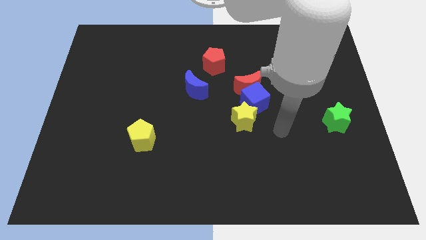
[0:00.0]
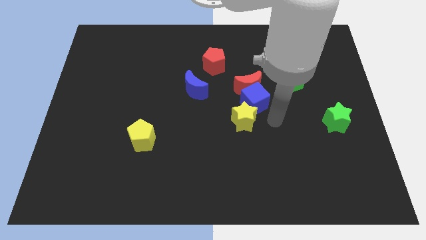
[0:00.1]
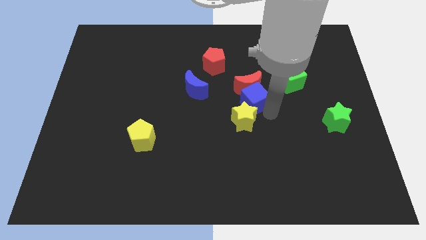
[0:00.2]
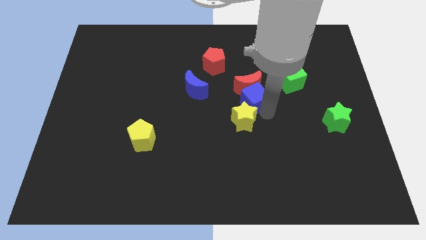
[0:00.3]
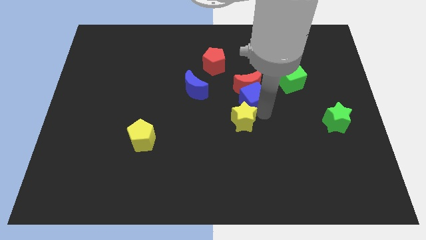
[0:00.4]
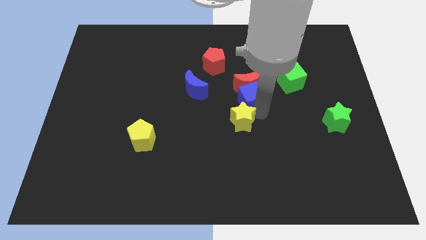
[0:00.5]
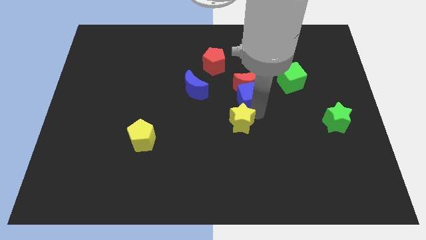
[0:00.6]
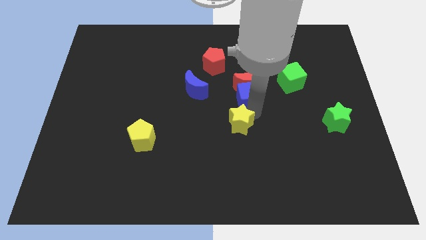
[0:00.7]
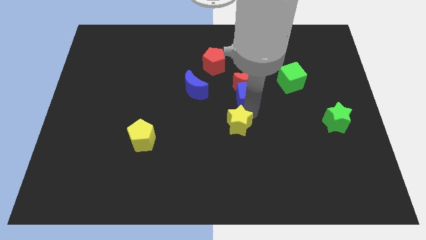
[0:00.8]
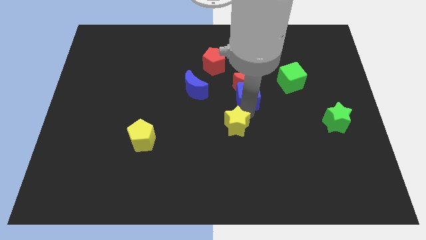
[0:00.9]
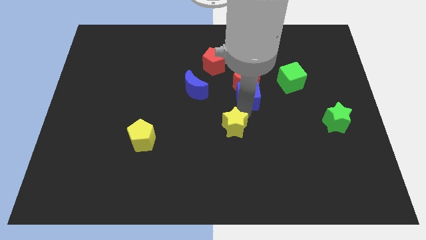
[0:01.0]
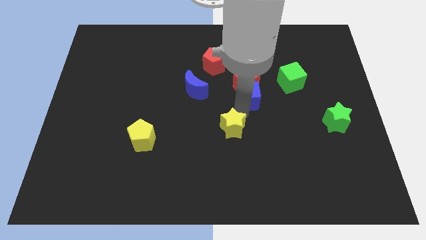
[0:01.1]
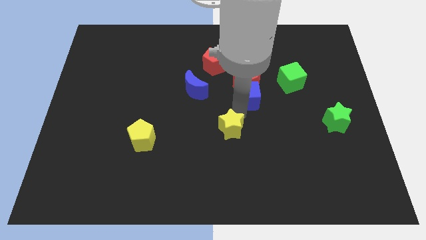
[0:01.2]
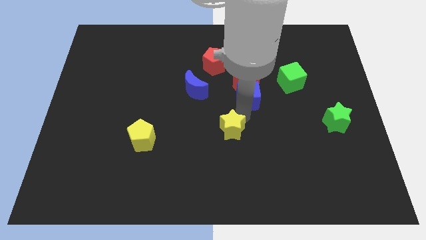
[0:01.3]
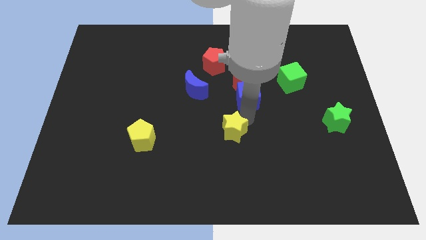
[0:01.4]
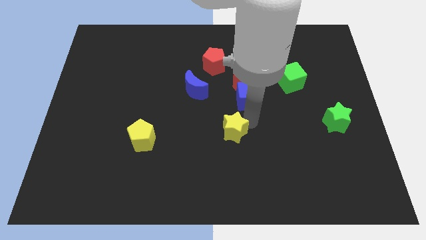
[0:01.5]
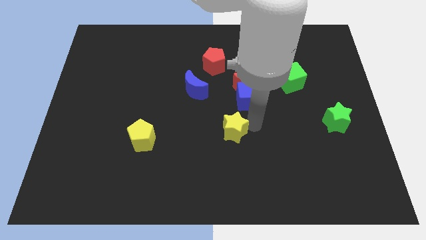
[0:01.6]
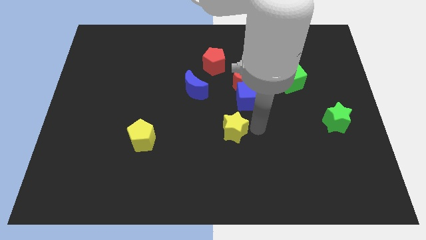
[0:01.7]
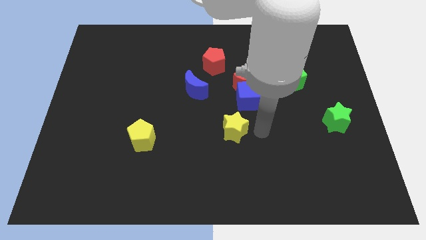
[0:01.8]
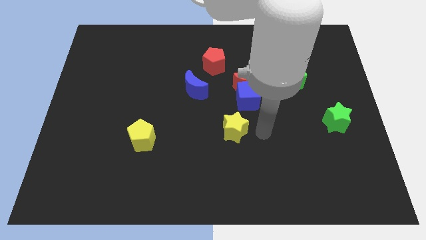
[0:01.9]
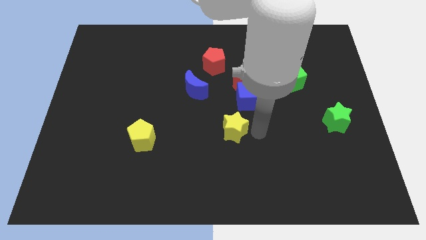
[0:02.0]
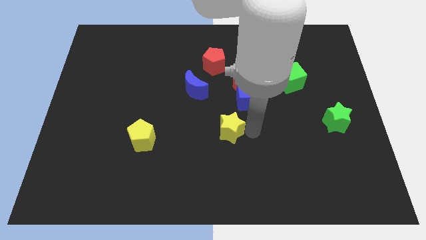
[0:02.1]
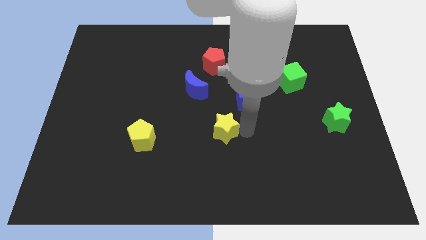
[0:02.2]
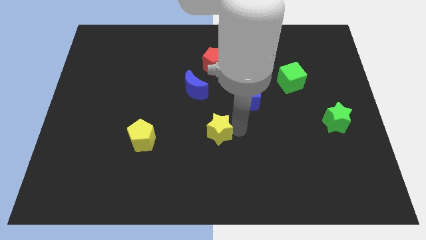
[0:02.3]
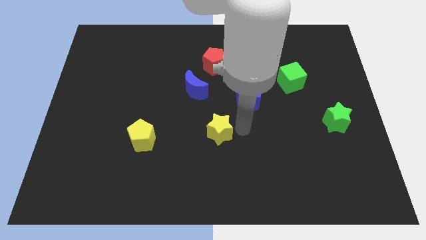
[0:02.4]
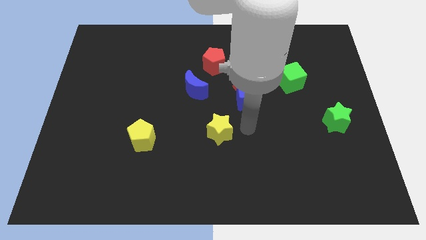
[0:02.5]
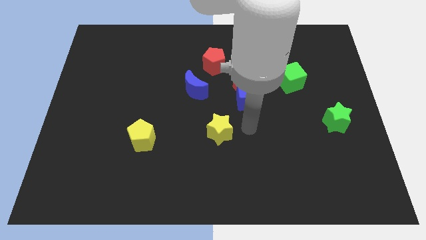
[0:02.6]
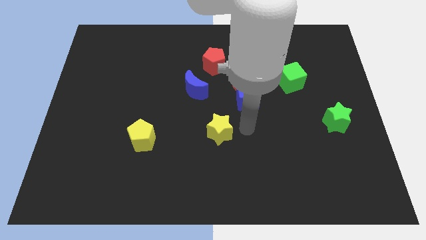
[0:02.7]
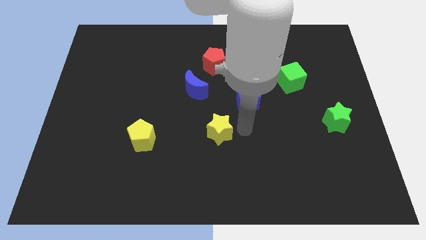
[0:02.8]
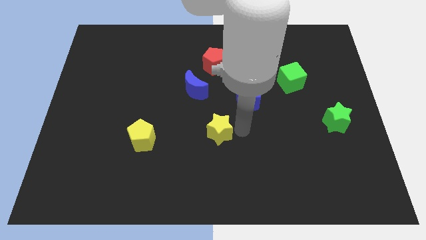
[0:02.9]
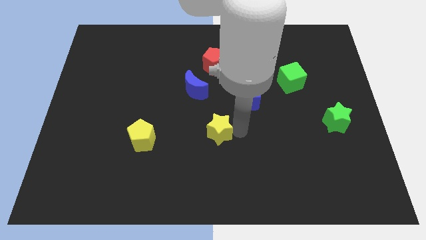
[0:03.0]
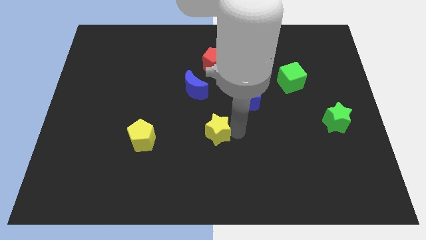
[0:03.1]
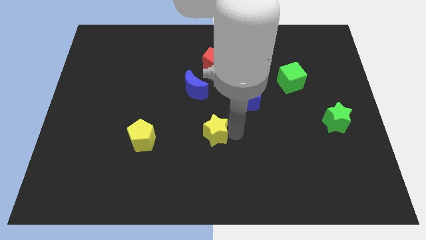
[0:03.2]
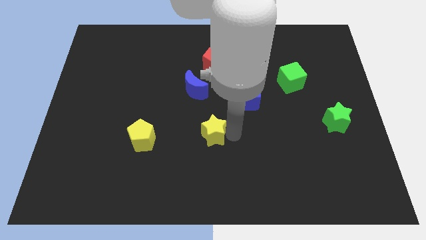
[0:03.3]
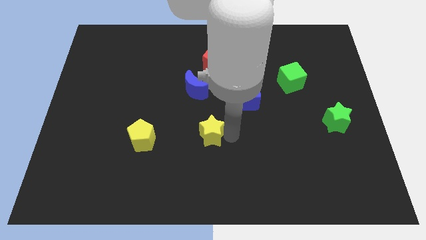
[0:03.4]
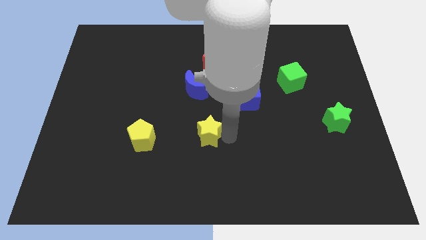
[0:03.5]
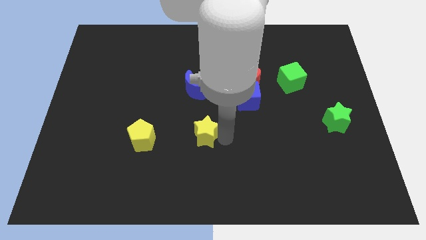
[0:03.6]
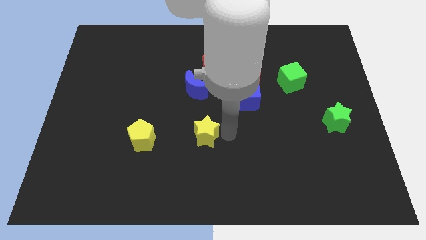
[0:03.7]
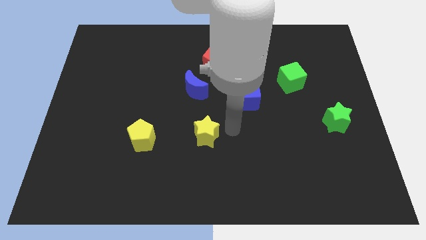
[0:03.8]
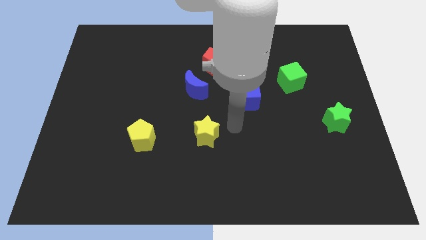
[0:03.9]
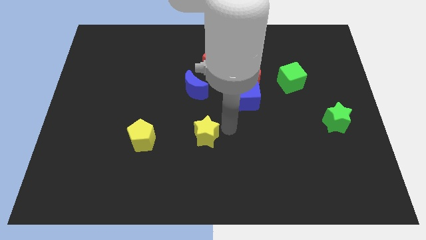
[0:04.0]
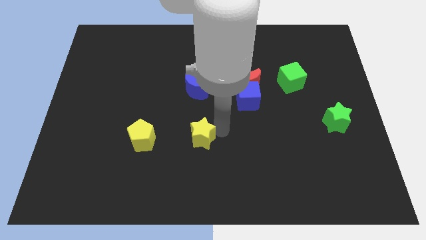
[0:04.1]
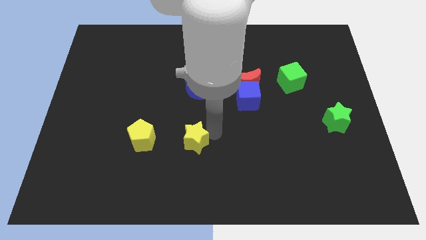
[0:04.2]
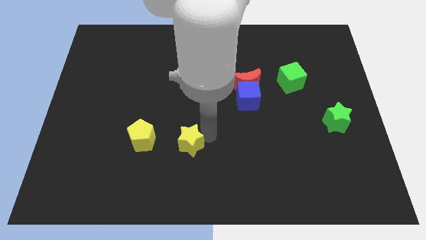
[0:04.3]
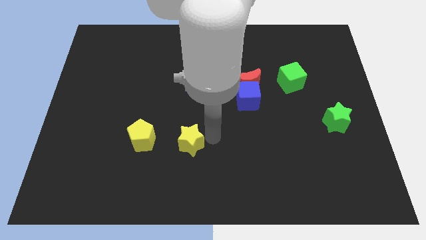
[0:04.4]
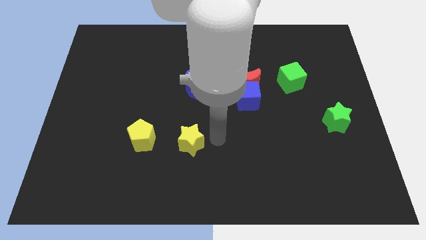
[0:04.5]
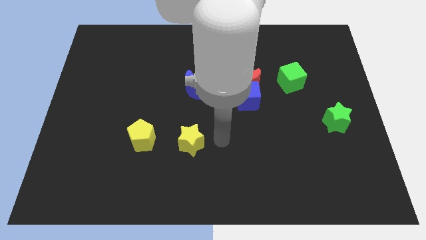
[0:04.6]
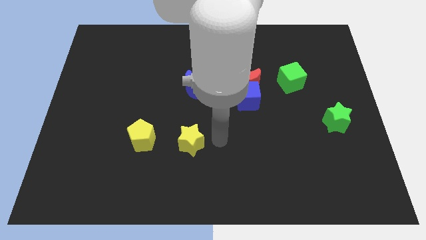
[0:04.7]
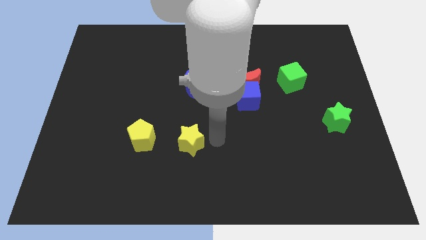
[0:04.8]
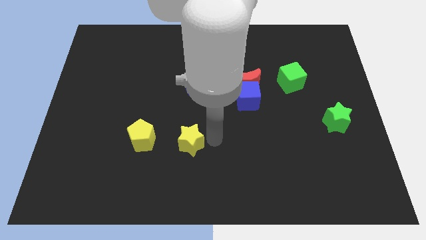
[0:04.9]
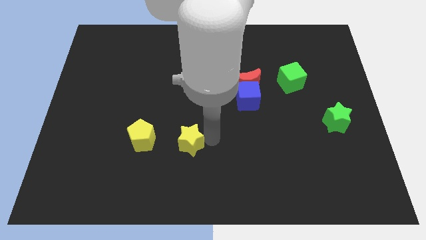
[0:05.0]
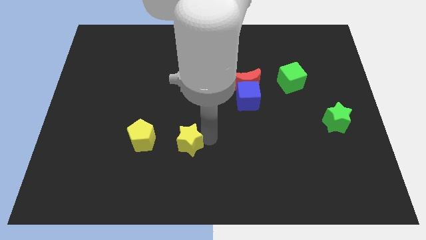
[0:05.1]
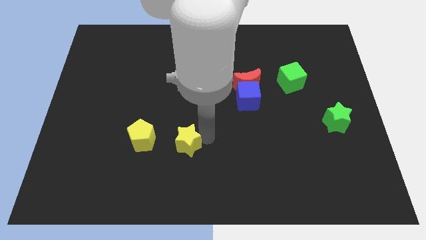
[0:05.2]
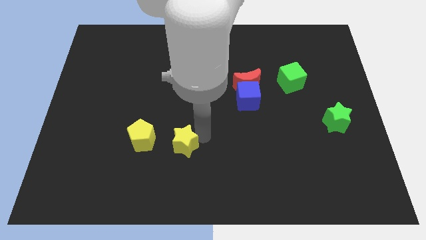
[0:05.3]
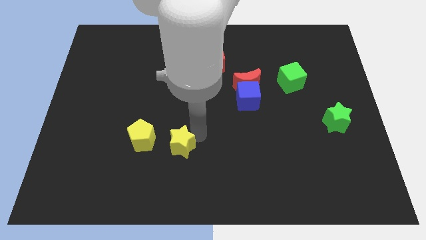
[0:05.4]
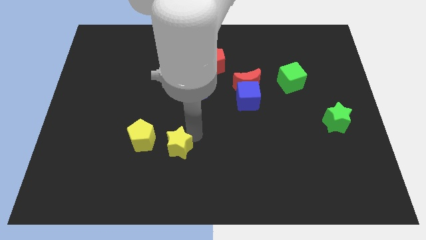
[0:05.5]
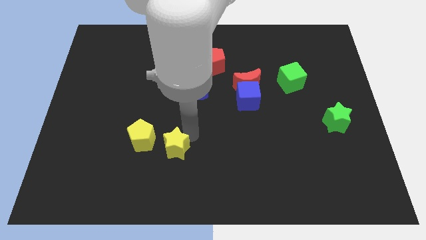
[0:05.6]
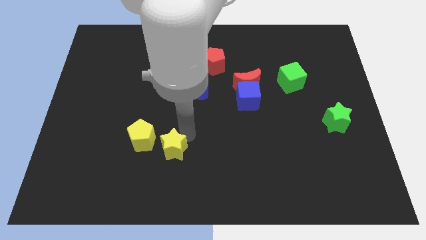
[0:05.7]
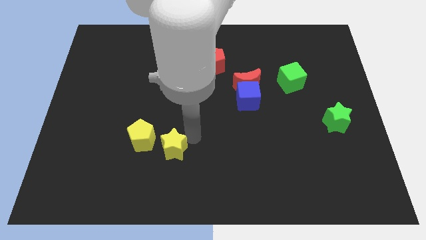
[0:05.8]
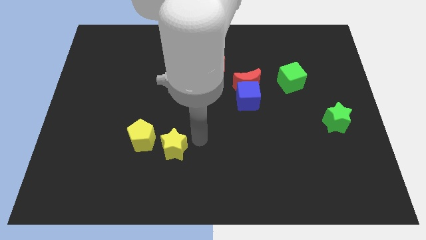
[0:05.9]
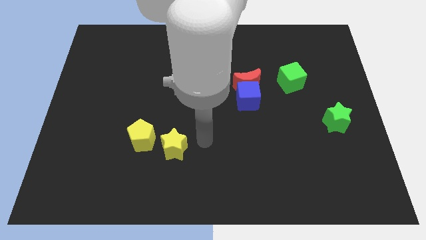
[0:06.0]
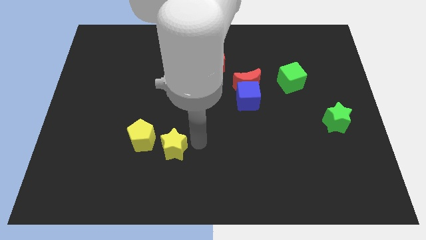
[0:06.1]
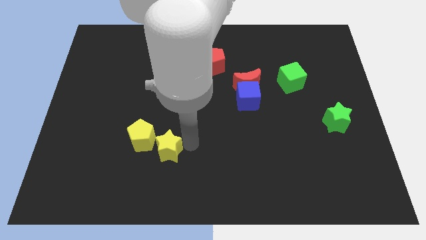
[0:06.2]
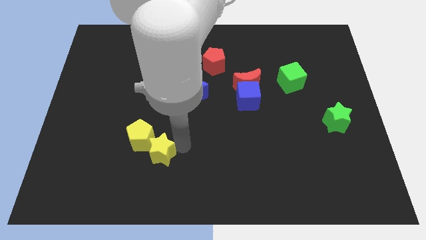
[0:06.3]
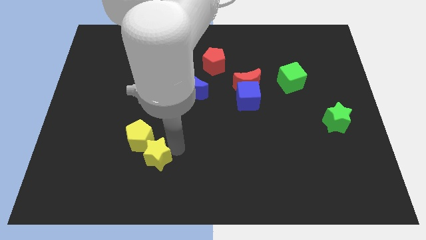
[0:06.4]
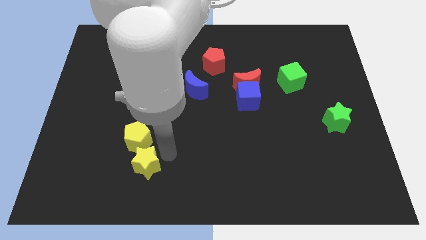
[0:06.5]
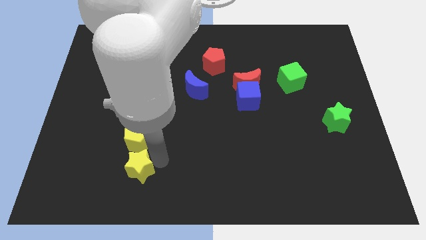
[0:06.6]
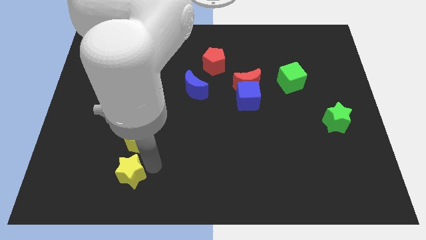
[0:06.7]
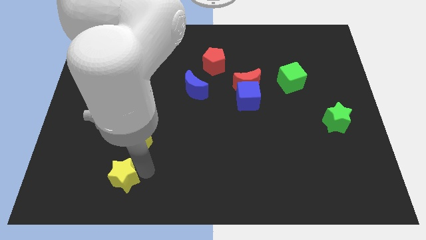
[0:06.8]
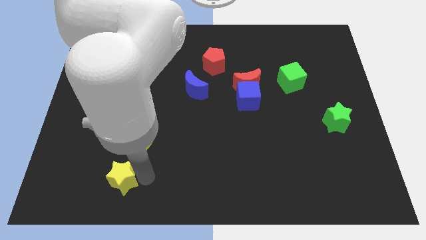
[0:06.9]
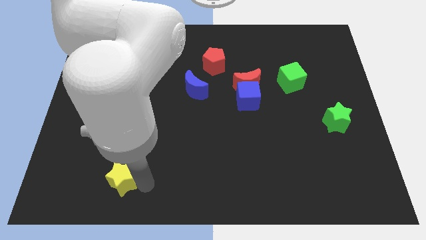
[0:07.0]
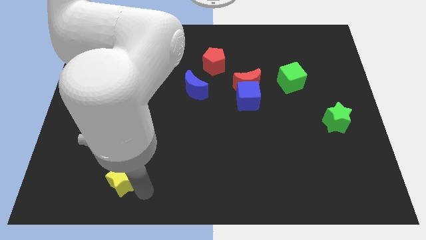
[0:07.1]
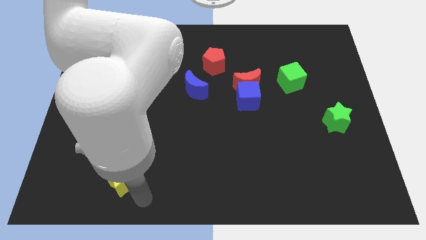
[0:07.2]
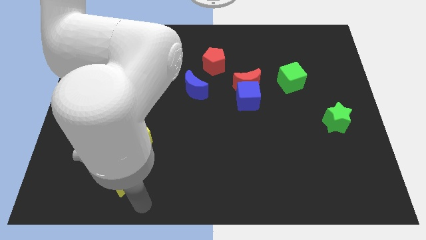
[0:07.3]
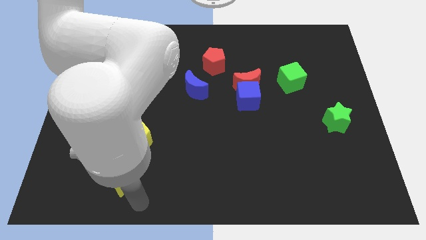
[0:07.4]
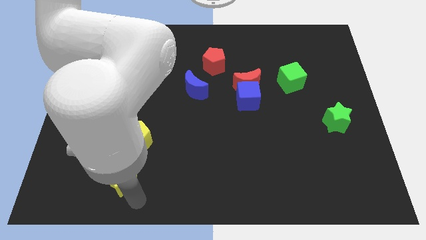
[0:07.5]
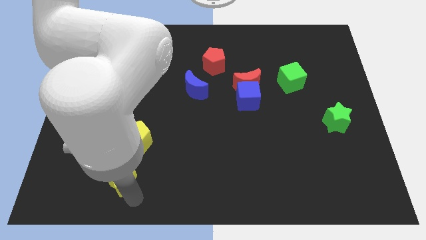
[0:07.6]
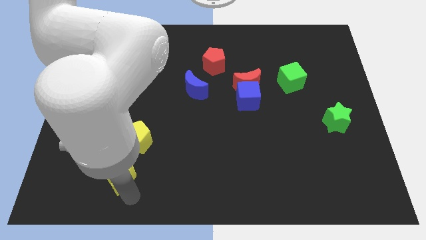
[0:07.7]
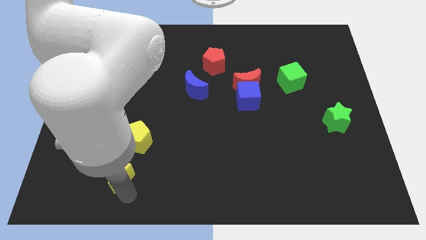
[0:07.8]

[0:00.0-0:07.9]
push the yellow star to the bottom left side of the yellow pentagon
